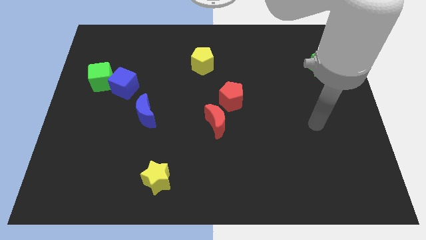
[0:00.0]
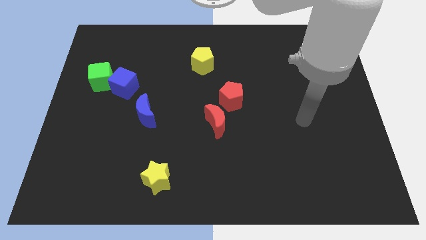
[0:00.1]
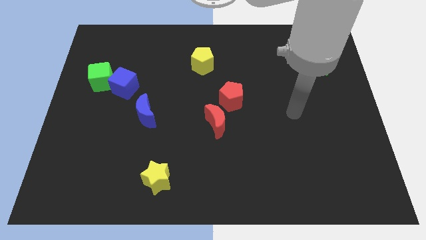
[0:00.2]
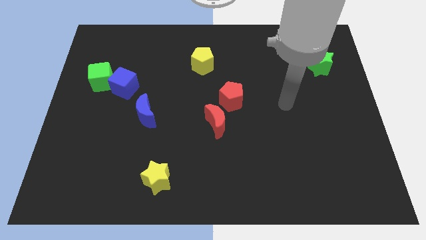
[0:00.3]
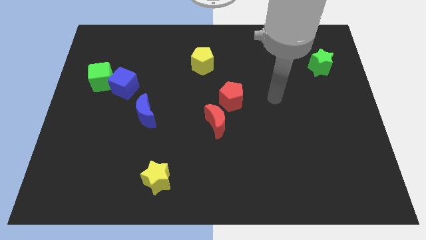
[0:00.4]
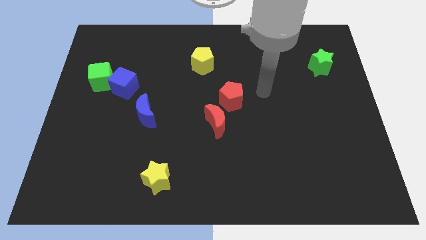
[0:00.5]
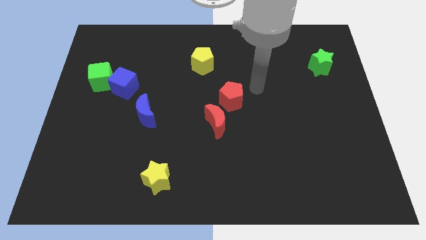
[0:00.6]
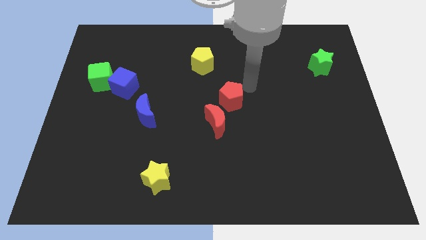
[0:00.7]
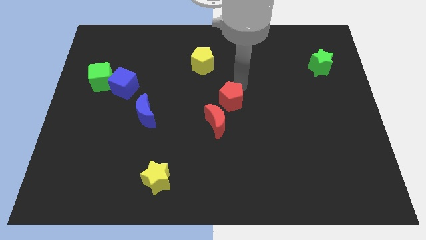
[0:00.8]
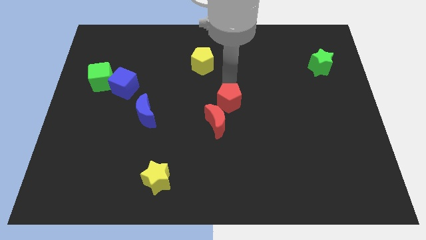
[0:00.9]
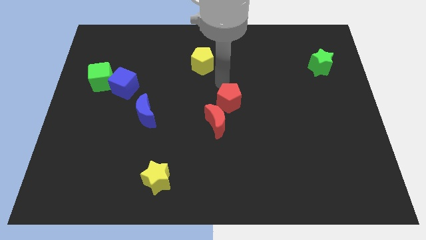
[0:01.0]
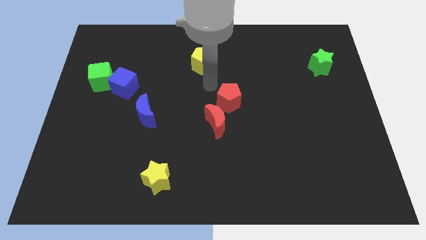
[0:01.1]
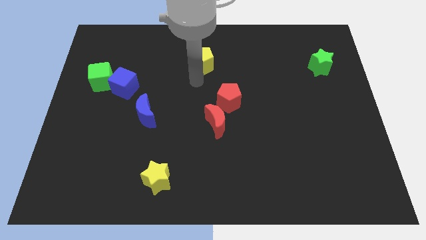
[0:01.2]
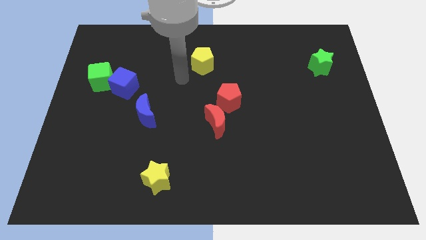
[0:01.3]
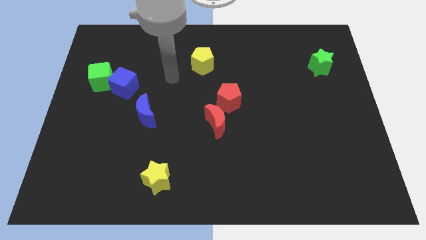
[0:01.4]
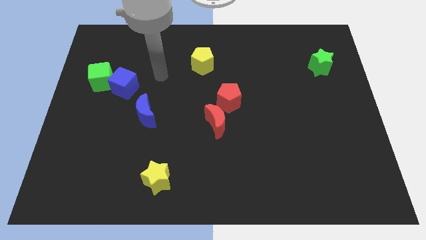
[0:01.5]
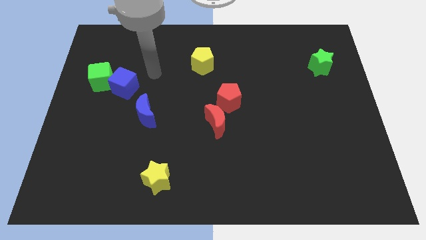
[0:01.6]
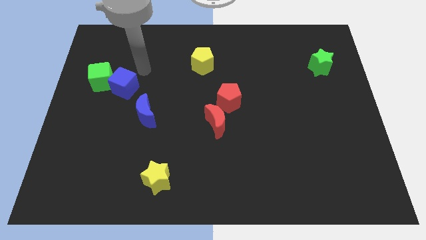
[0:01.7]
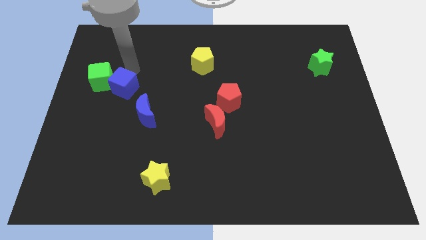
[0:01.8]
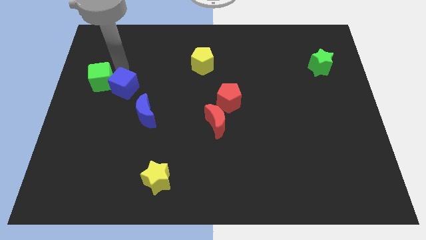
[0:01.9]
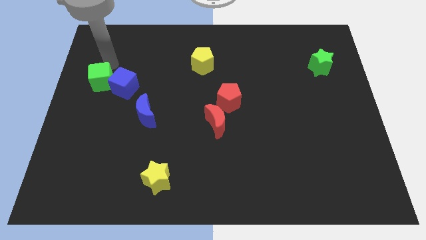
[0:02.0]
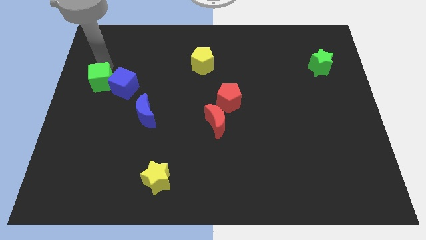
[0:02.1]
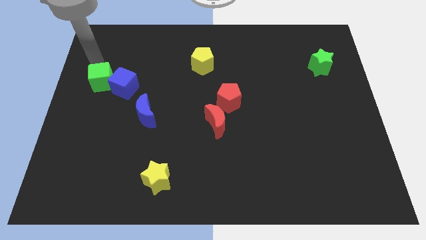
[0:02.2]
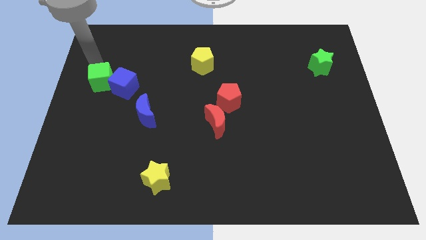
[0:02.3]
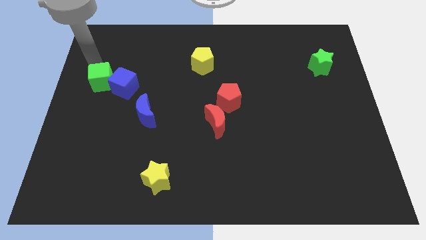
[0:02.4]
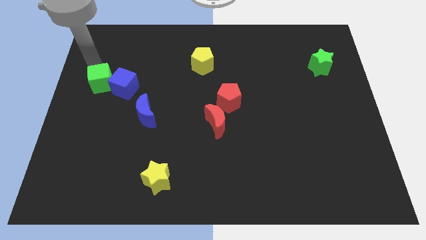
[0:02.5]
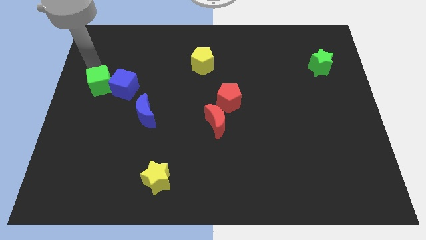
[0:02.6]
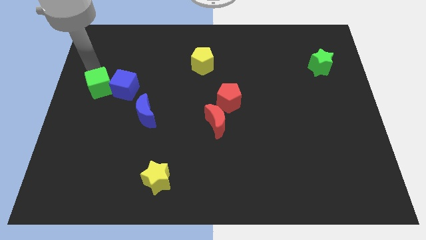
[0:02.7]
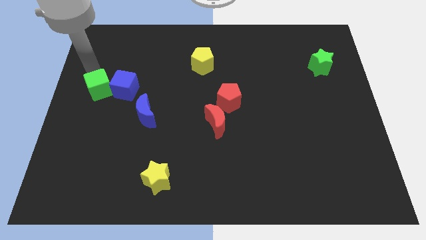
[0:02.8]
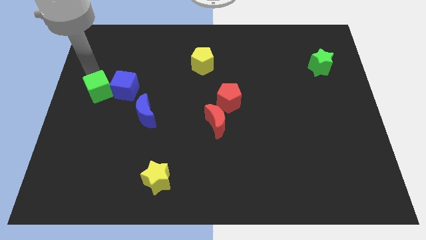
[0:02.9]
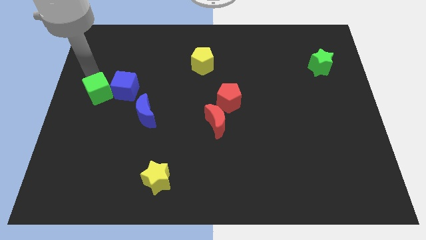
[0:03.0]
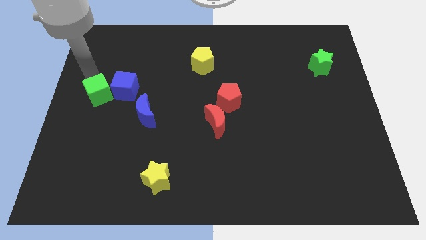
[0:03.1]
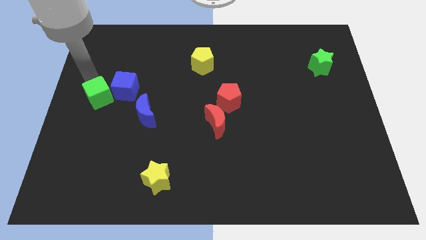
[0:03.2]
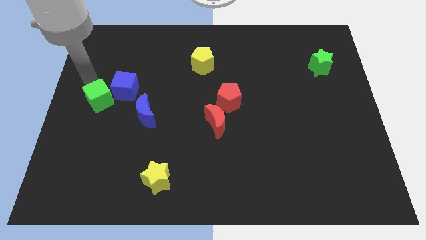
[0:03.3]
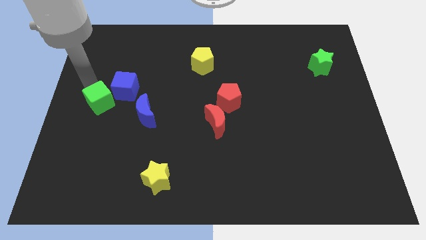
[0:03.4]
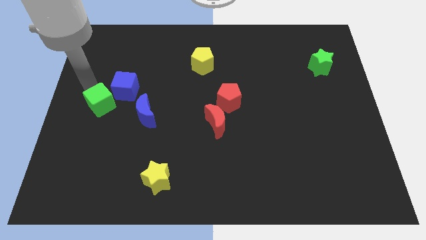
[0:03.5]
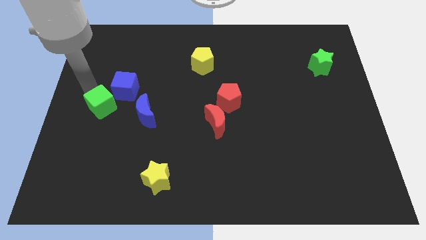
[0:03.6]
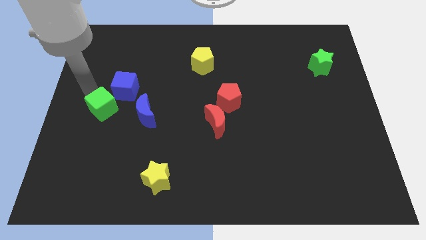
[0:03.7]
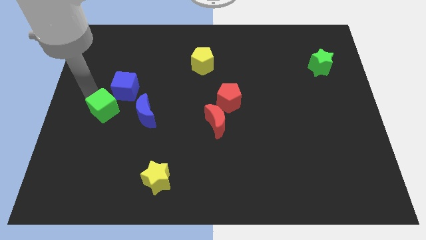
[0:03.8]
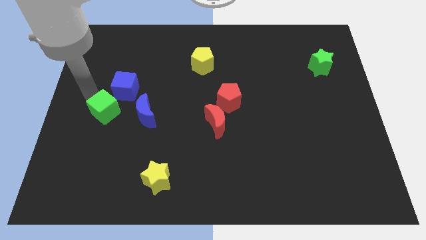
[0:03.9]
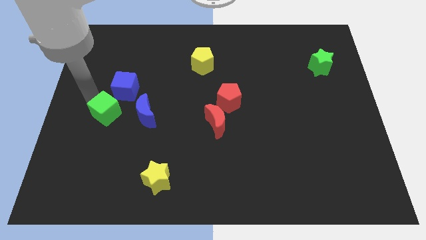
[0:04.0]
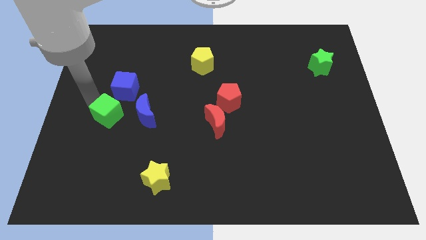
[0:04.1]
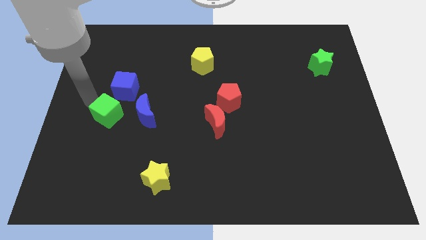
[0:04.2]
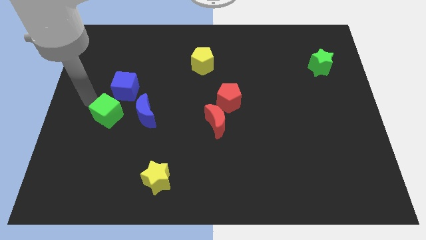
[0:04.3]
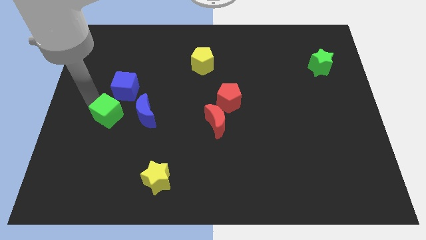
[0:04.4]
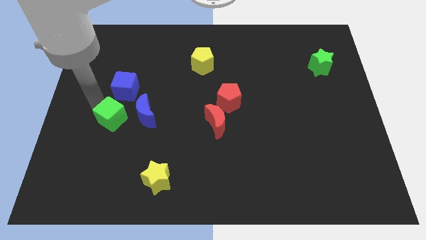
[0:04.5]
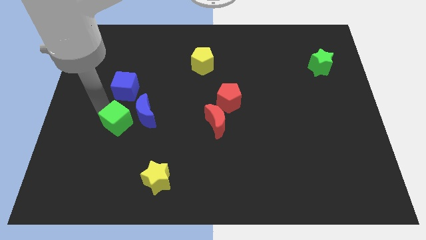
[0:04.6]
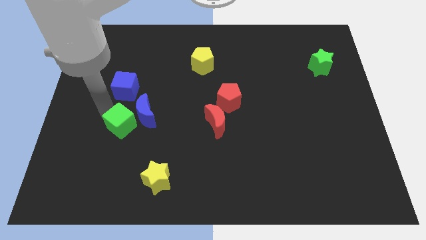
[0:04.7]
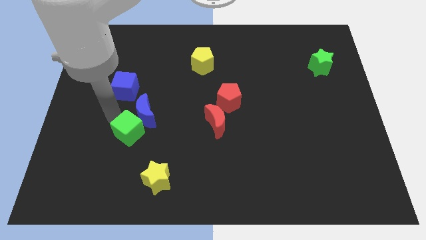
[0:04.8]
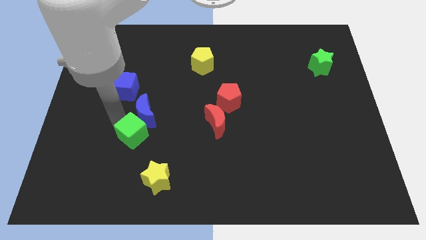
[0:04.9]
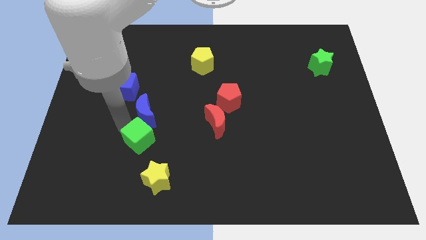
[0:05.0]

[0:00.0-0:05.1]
push the green cube down and right

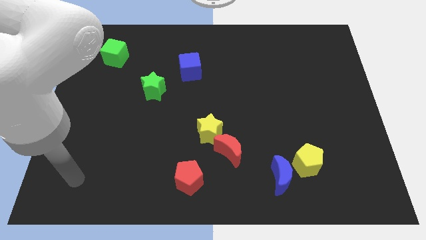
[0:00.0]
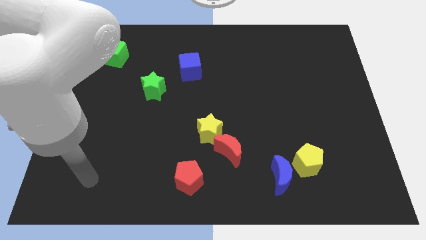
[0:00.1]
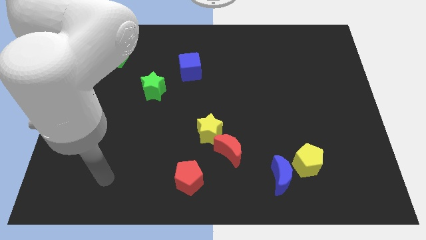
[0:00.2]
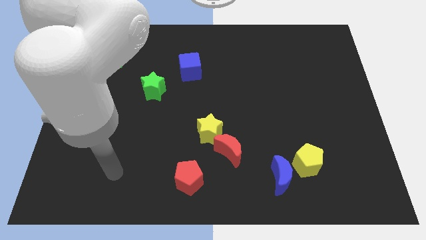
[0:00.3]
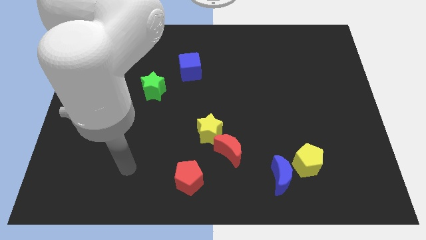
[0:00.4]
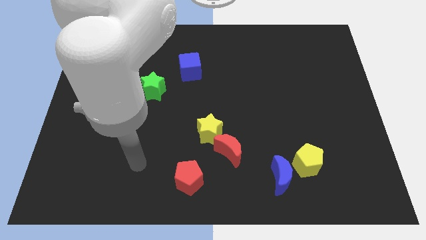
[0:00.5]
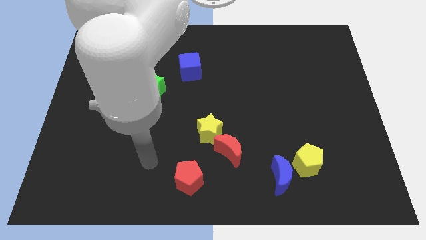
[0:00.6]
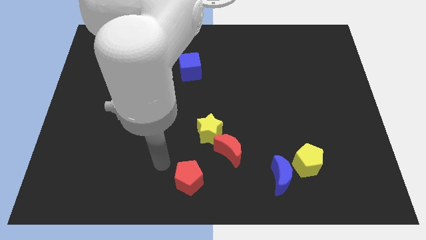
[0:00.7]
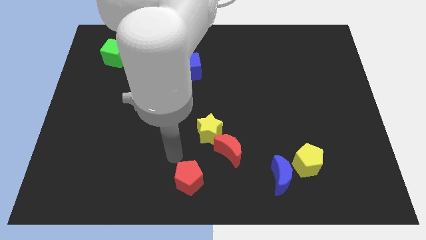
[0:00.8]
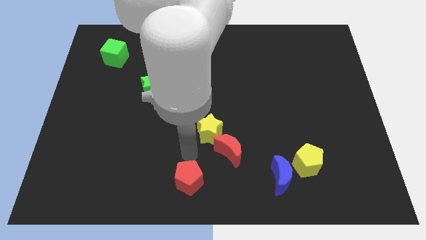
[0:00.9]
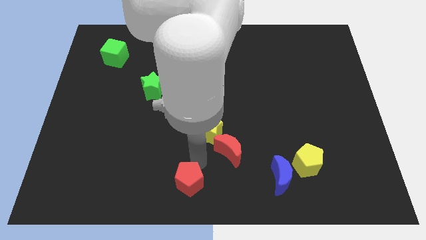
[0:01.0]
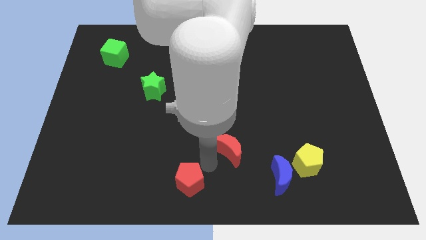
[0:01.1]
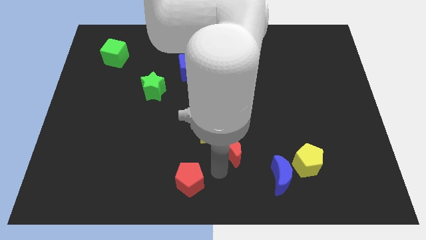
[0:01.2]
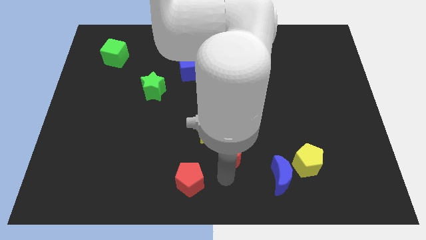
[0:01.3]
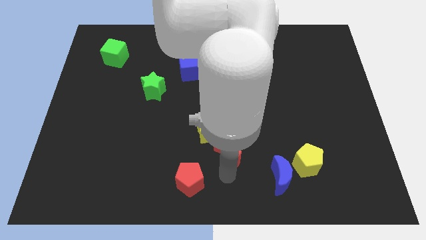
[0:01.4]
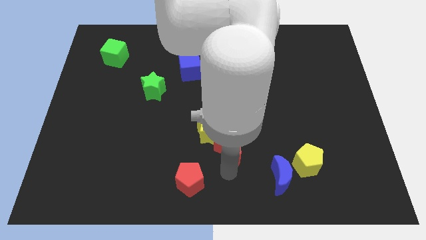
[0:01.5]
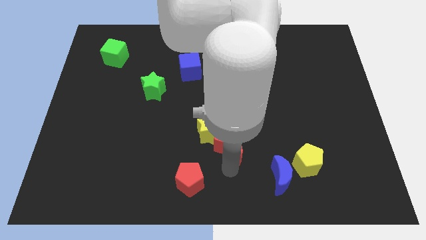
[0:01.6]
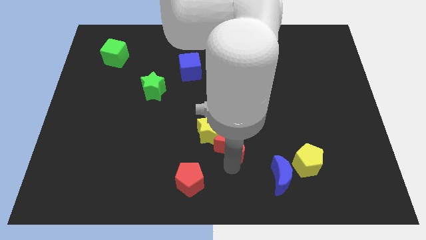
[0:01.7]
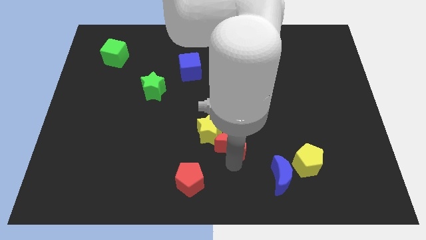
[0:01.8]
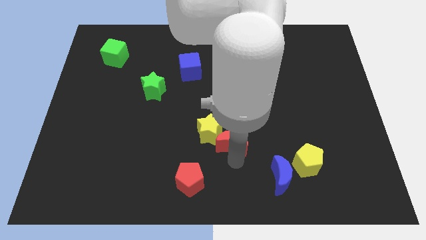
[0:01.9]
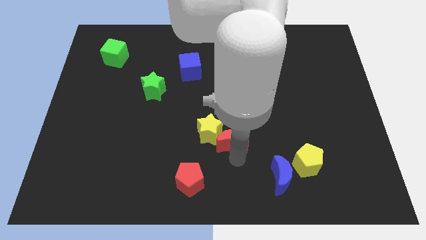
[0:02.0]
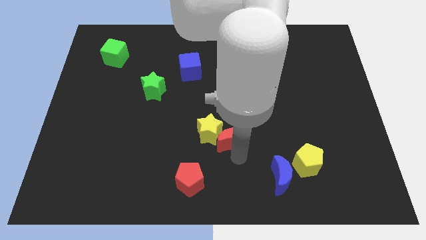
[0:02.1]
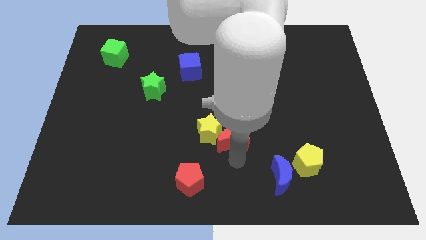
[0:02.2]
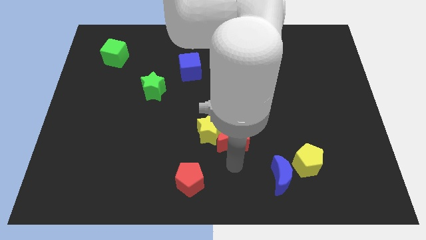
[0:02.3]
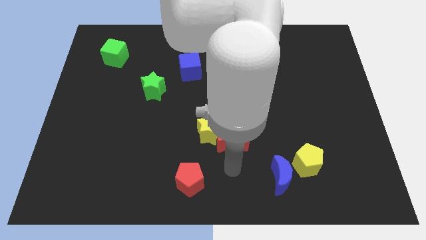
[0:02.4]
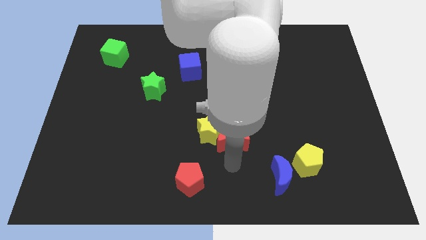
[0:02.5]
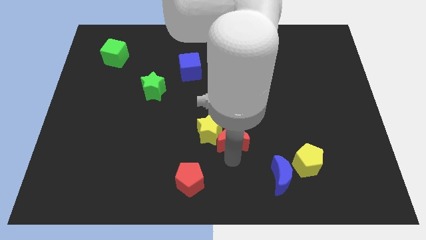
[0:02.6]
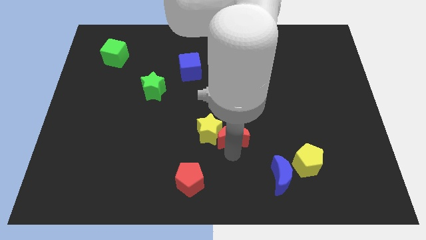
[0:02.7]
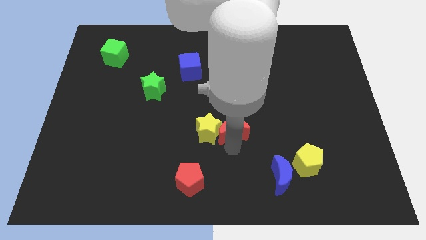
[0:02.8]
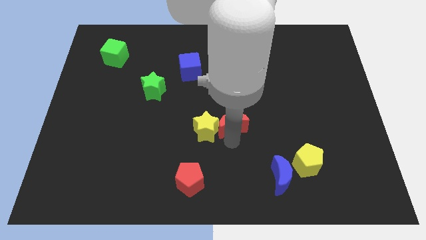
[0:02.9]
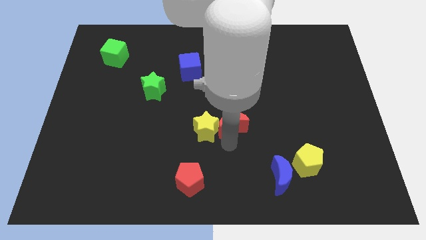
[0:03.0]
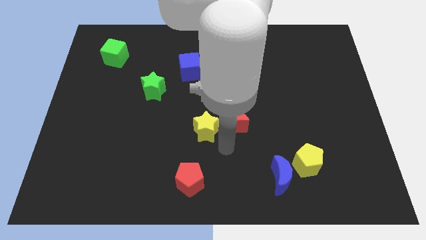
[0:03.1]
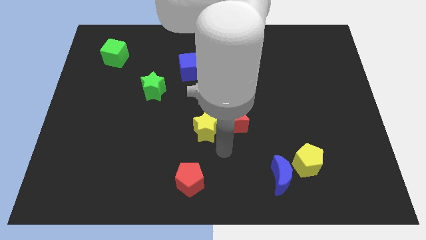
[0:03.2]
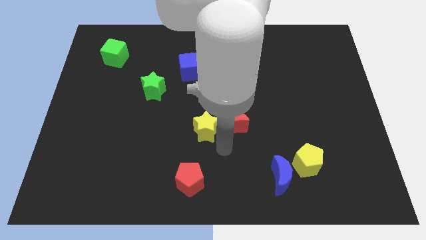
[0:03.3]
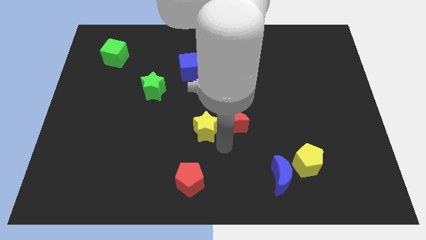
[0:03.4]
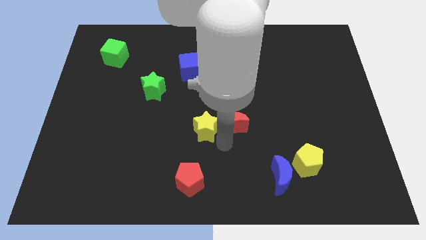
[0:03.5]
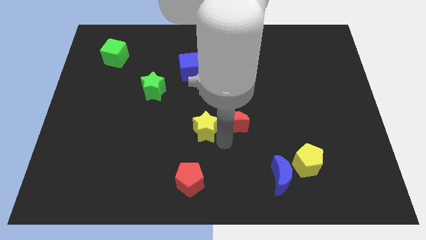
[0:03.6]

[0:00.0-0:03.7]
move the red moon up a little bit
